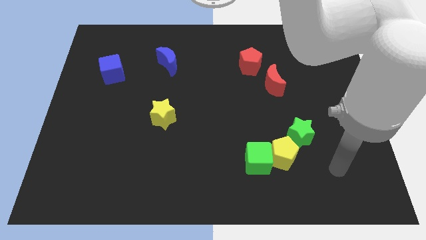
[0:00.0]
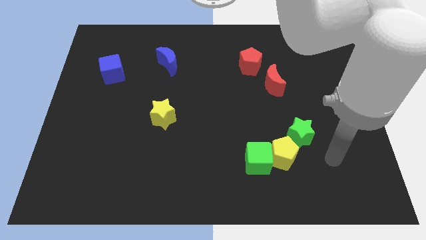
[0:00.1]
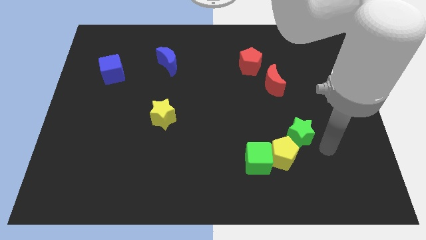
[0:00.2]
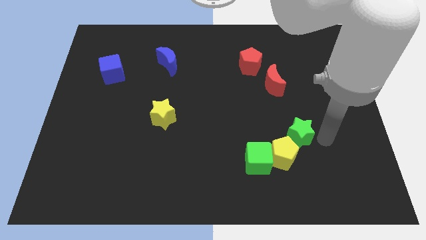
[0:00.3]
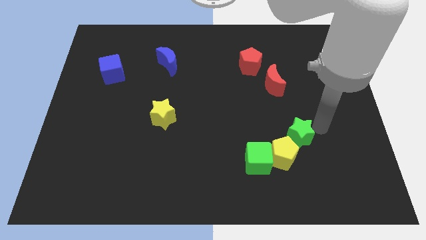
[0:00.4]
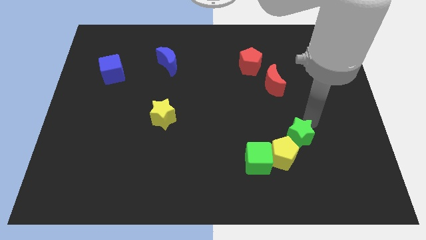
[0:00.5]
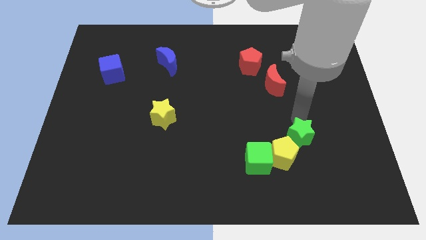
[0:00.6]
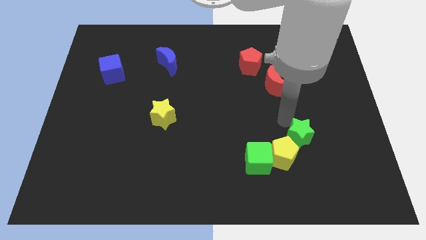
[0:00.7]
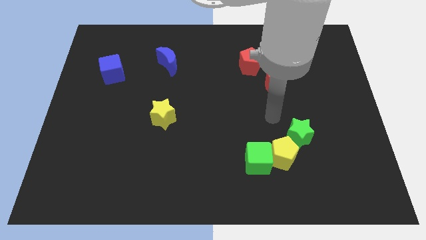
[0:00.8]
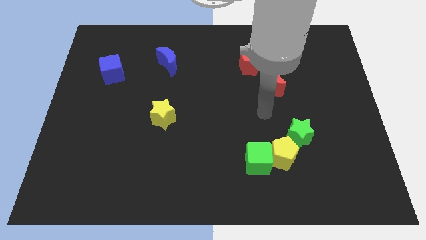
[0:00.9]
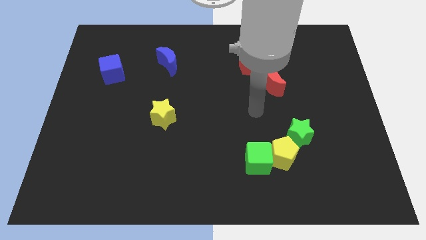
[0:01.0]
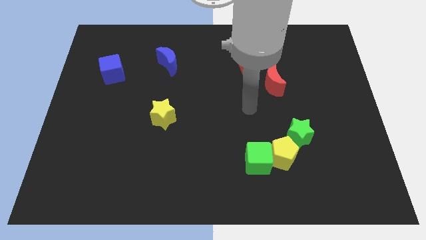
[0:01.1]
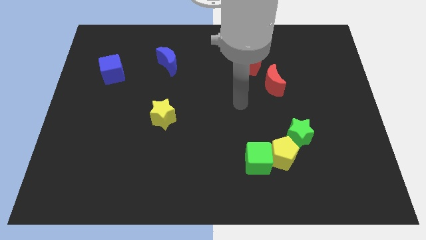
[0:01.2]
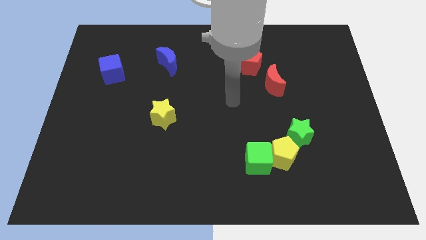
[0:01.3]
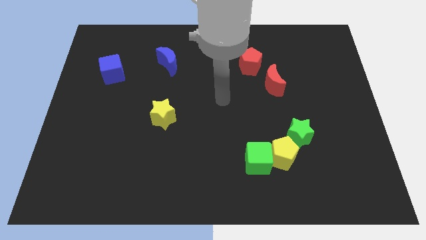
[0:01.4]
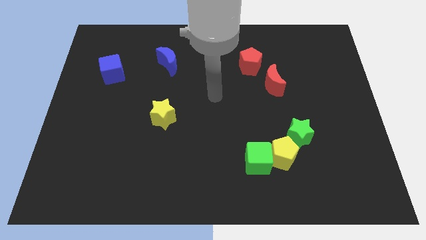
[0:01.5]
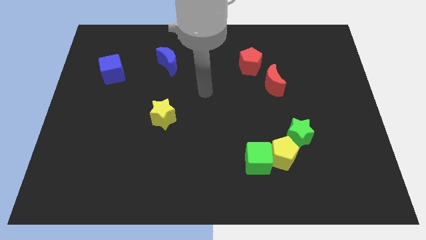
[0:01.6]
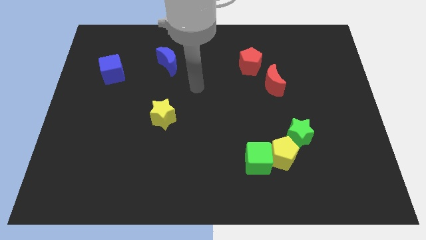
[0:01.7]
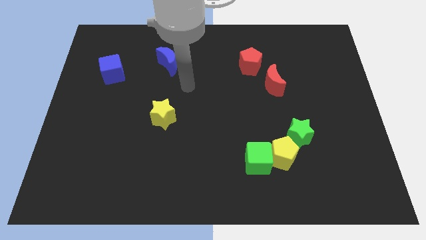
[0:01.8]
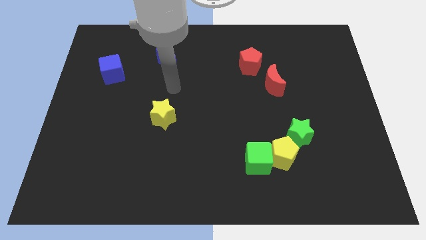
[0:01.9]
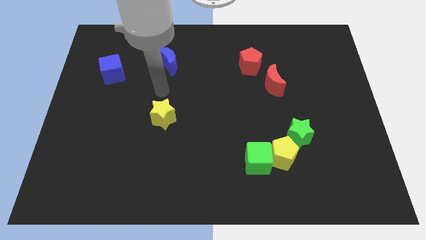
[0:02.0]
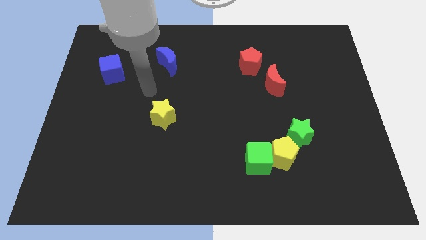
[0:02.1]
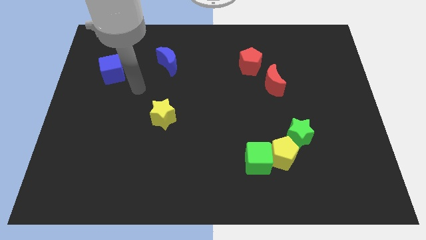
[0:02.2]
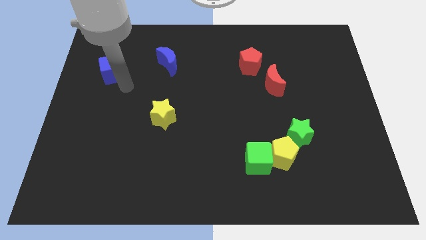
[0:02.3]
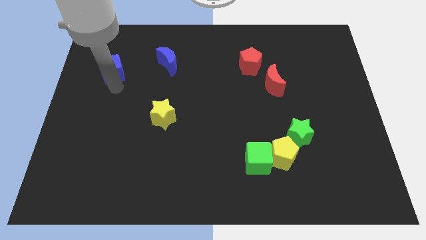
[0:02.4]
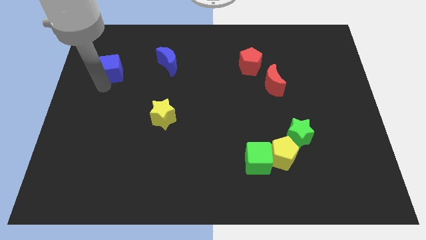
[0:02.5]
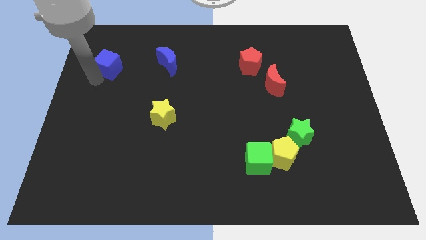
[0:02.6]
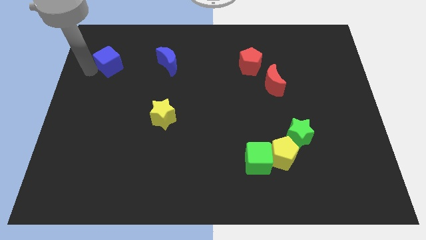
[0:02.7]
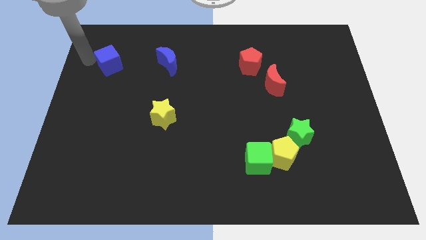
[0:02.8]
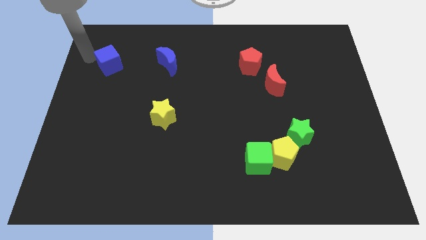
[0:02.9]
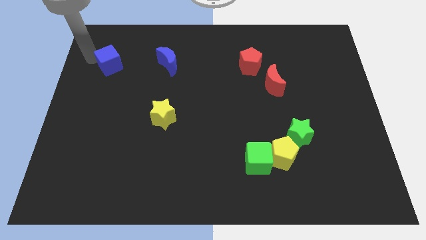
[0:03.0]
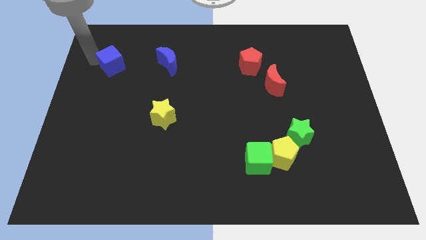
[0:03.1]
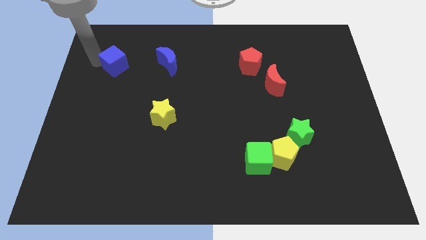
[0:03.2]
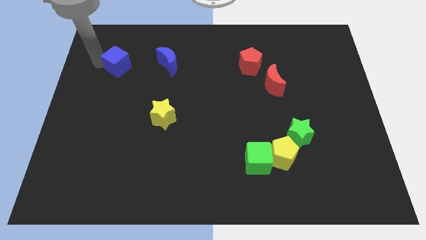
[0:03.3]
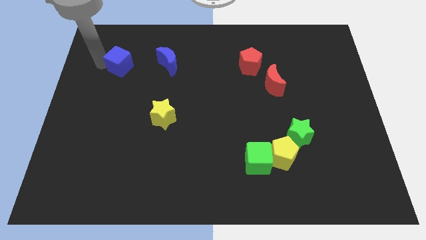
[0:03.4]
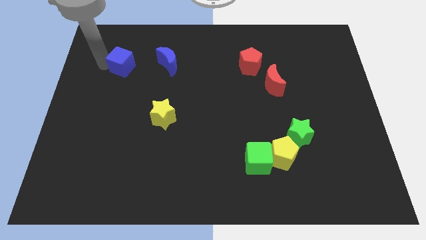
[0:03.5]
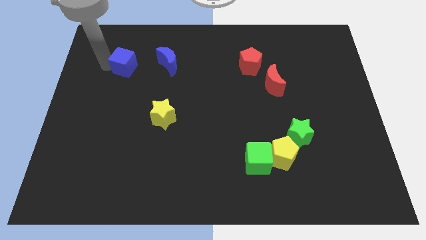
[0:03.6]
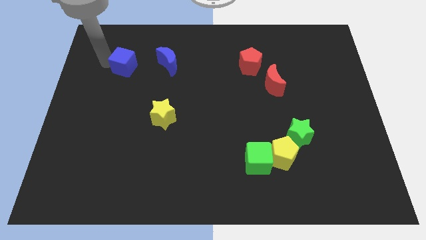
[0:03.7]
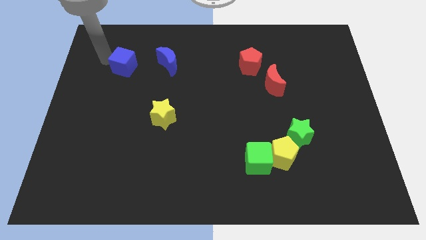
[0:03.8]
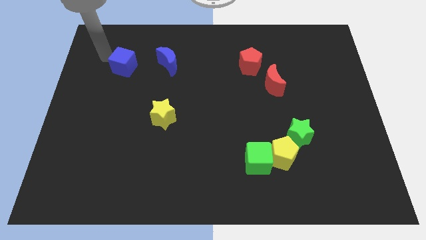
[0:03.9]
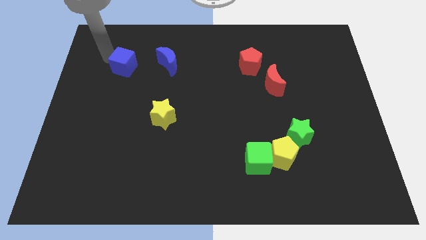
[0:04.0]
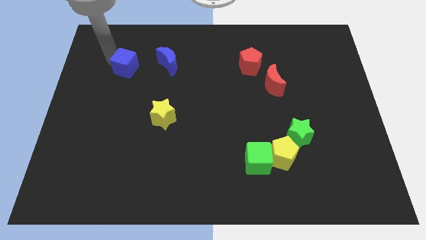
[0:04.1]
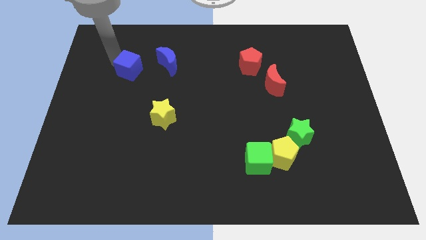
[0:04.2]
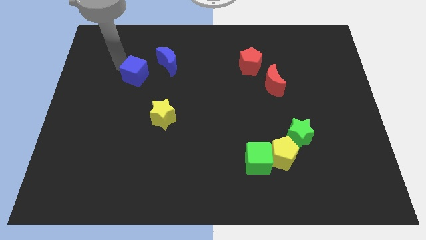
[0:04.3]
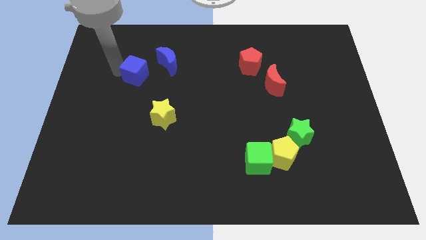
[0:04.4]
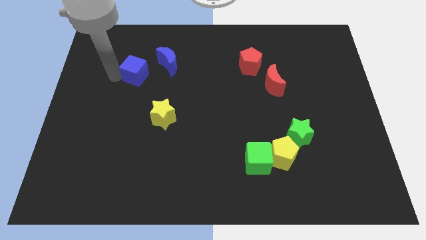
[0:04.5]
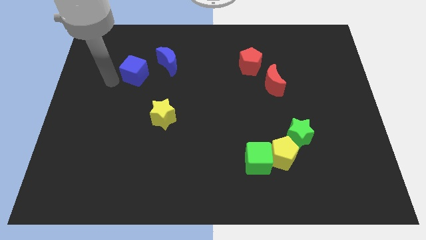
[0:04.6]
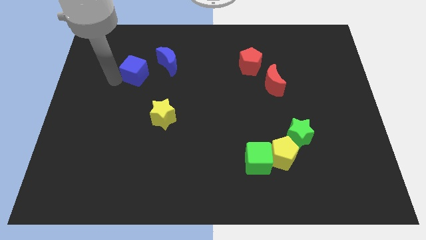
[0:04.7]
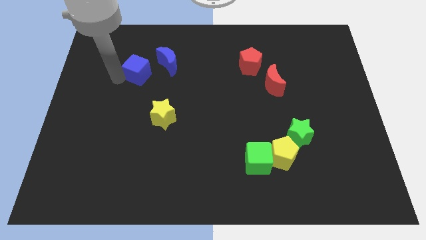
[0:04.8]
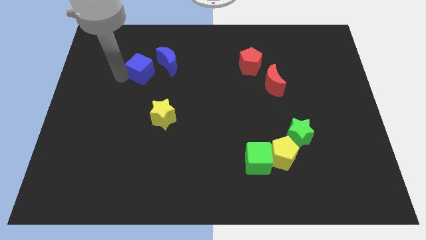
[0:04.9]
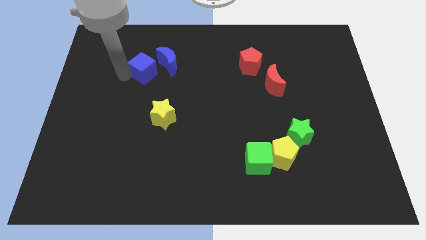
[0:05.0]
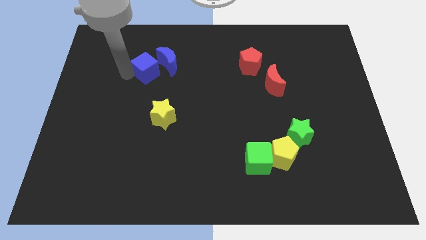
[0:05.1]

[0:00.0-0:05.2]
push the blue cube towards the blue moon

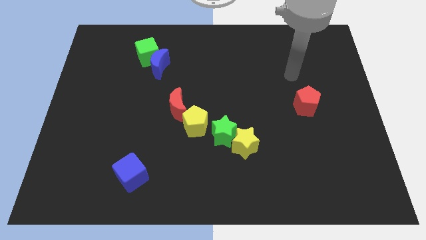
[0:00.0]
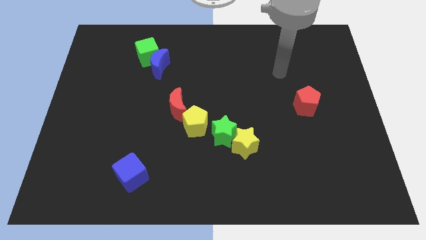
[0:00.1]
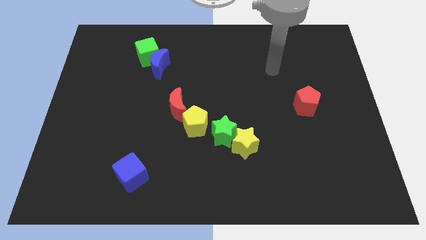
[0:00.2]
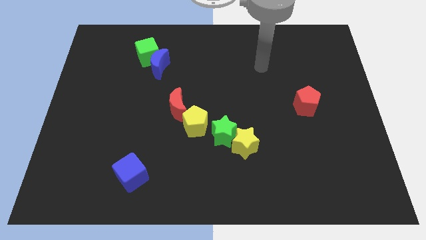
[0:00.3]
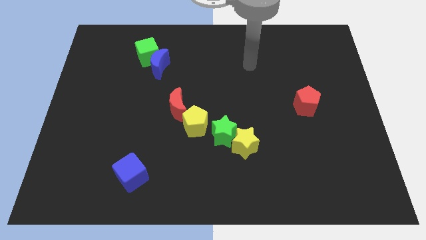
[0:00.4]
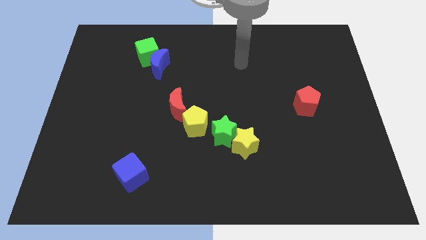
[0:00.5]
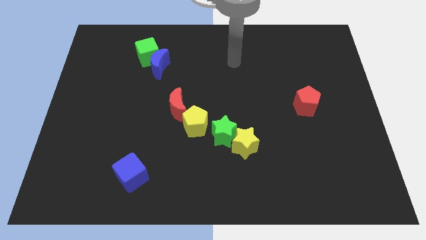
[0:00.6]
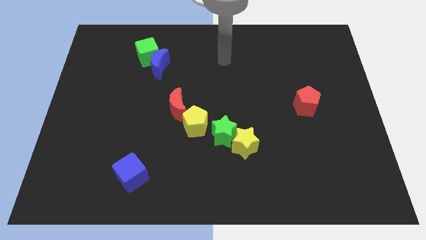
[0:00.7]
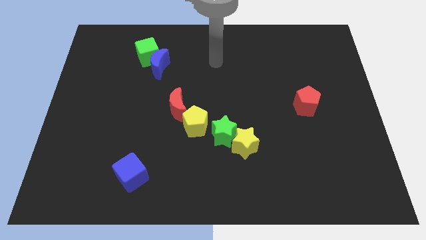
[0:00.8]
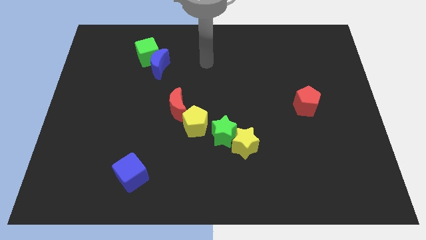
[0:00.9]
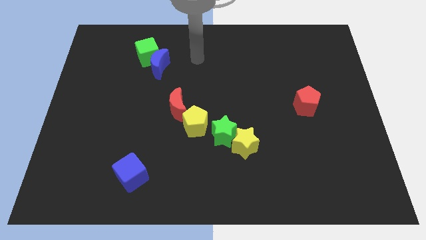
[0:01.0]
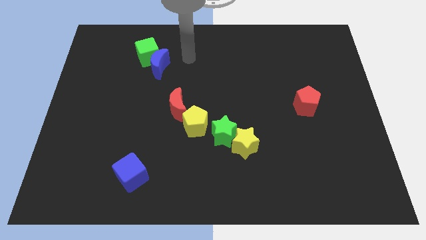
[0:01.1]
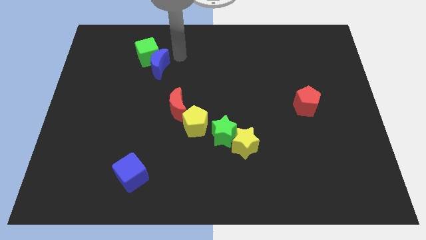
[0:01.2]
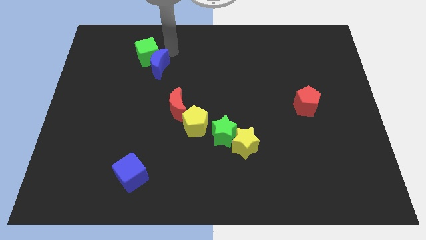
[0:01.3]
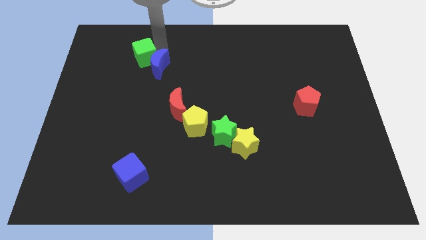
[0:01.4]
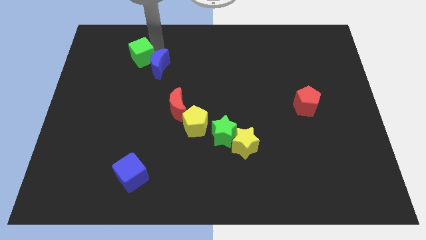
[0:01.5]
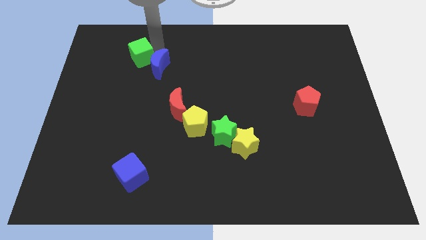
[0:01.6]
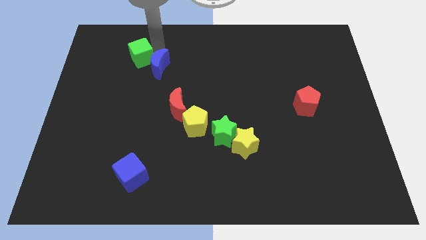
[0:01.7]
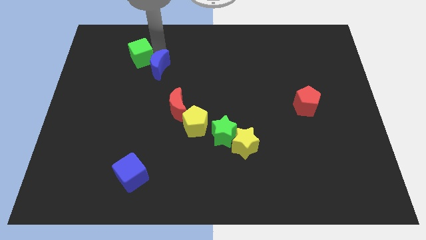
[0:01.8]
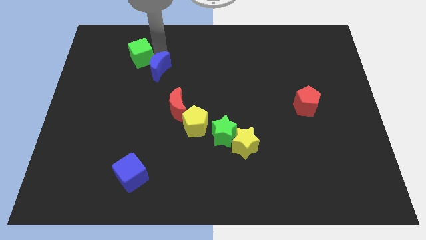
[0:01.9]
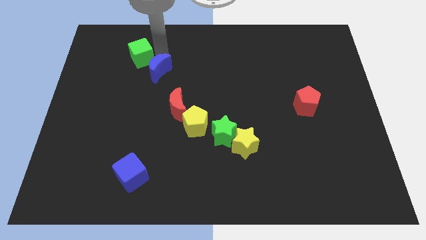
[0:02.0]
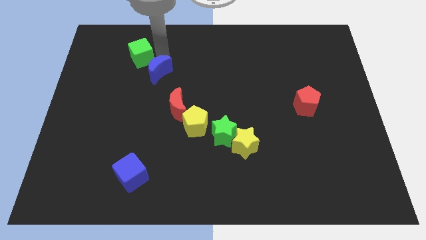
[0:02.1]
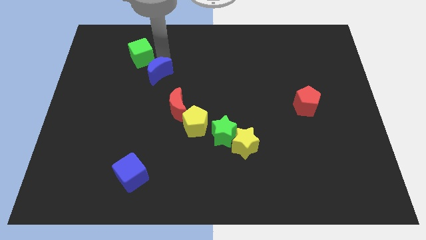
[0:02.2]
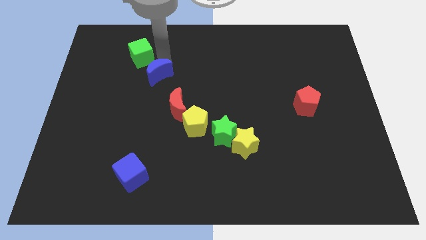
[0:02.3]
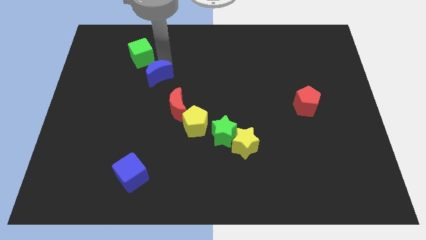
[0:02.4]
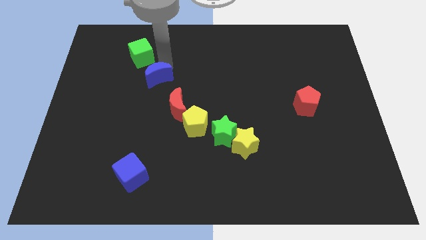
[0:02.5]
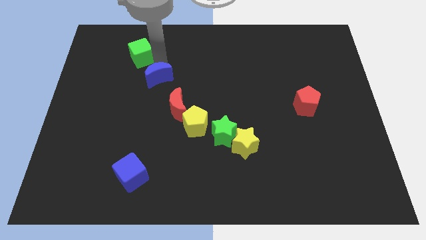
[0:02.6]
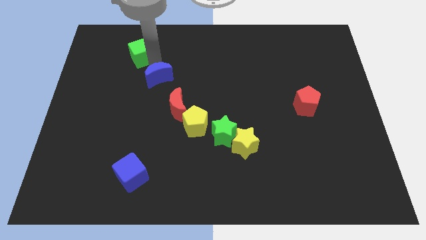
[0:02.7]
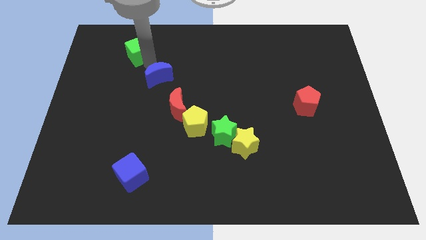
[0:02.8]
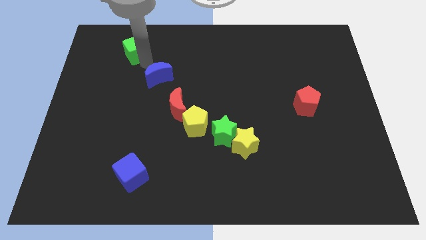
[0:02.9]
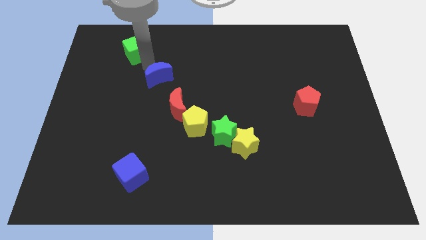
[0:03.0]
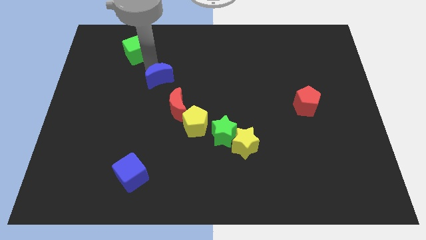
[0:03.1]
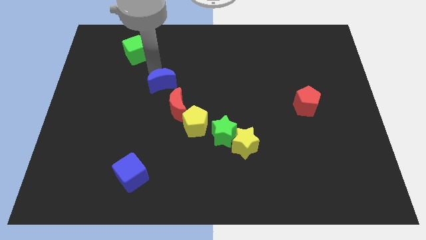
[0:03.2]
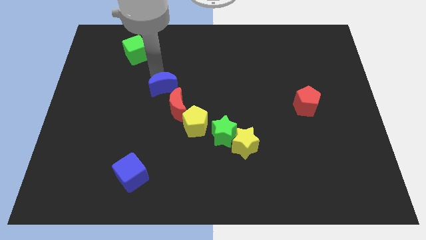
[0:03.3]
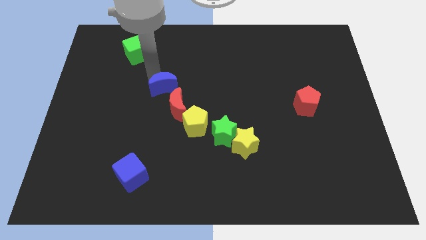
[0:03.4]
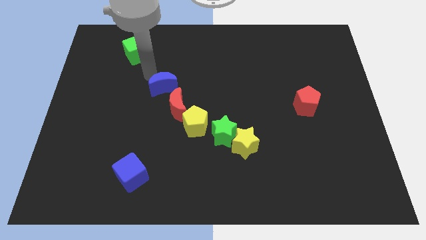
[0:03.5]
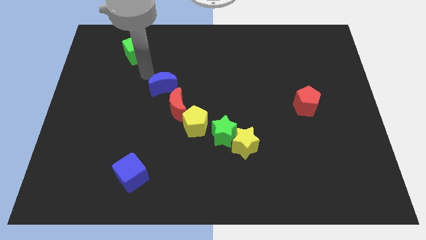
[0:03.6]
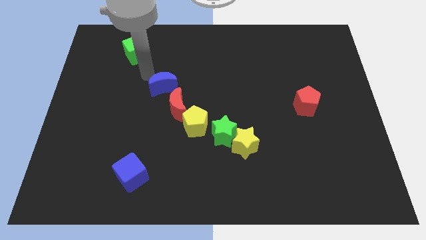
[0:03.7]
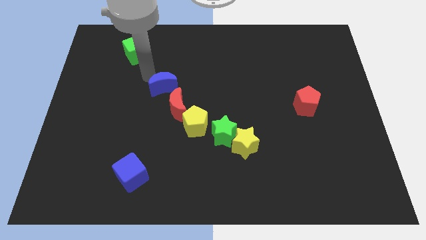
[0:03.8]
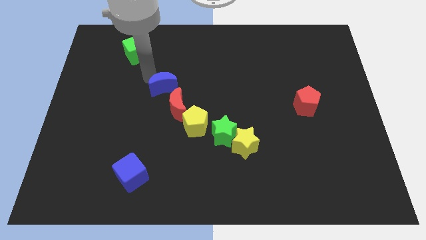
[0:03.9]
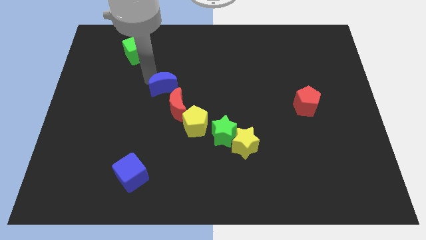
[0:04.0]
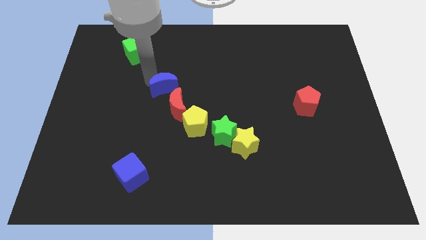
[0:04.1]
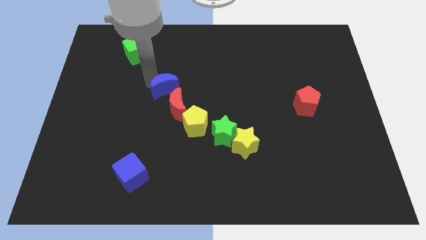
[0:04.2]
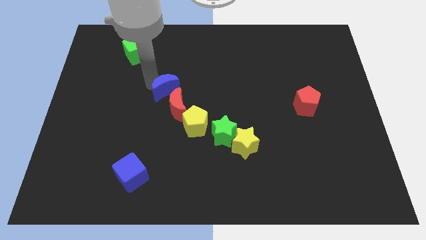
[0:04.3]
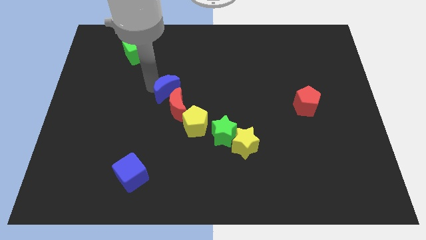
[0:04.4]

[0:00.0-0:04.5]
slide the blue moon close to the red moon
